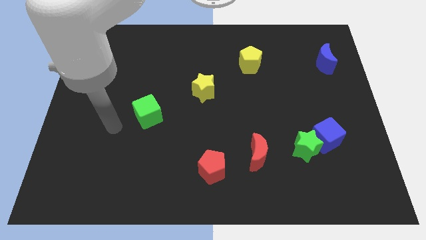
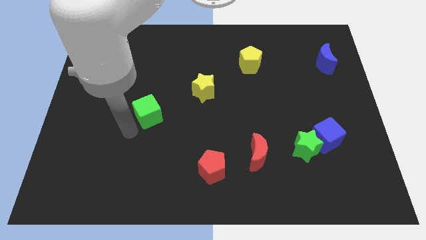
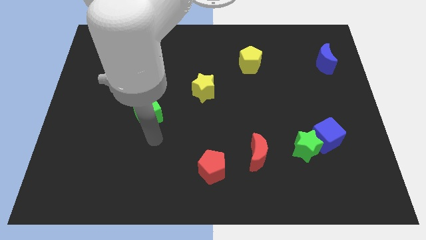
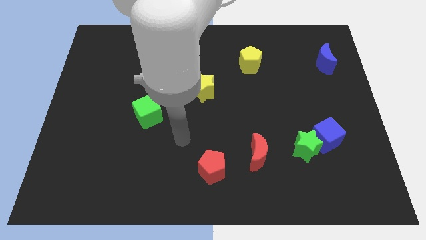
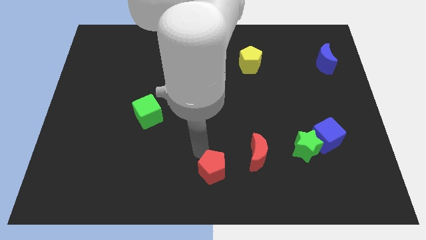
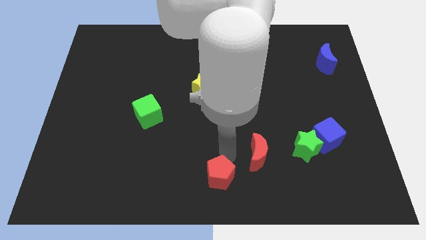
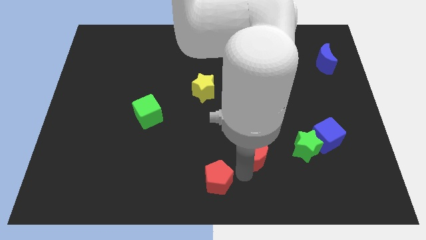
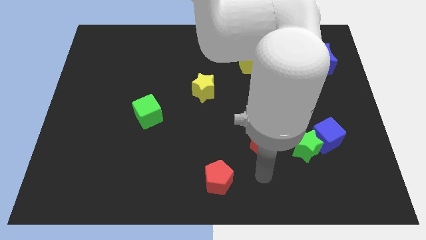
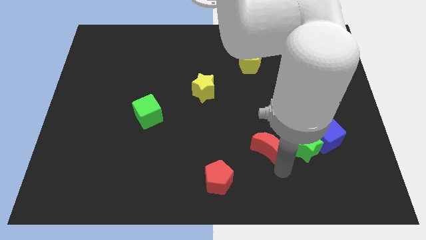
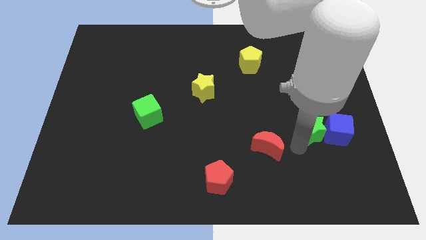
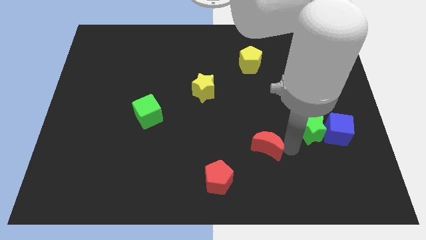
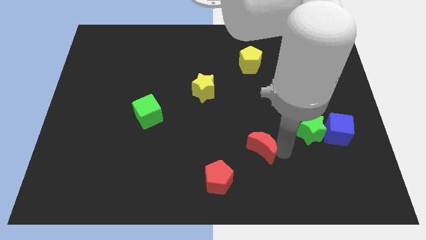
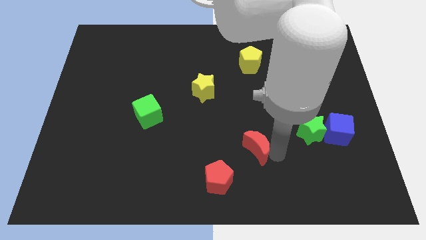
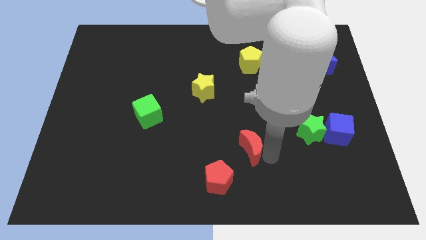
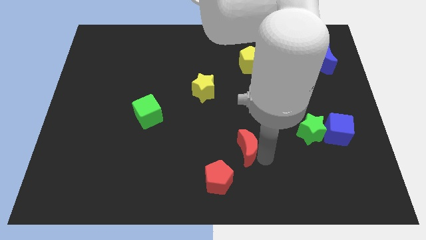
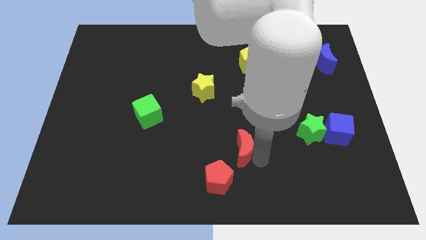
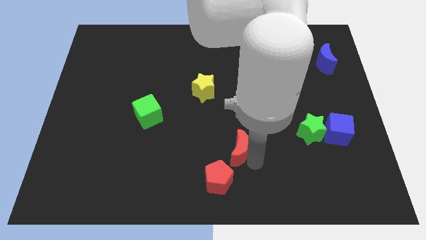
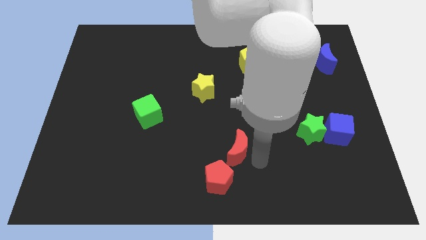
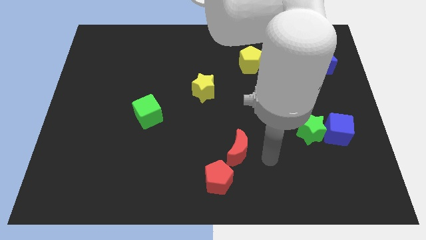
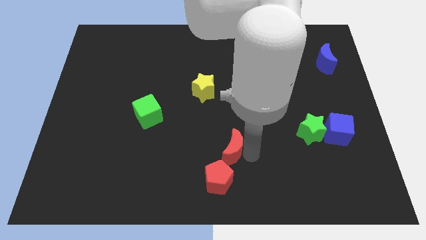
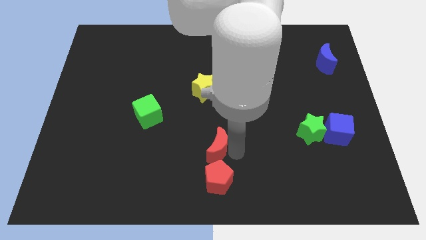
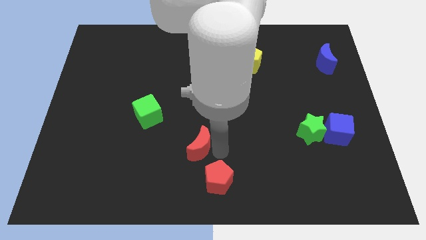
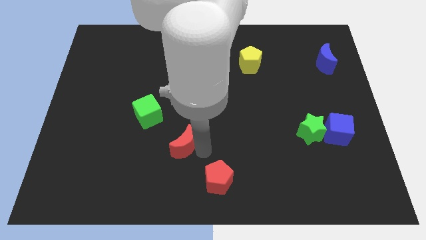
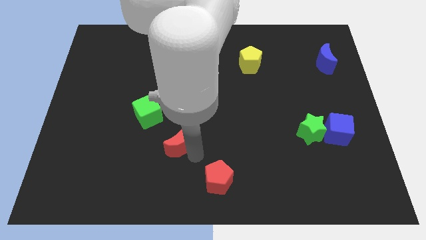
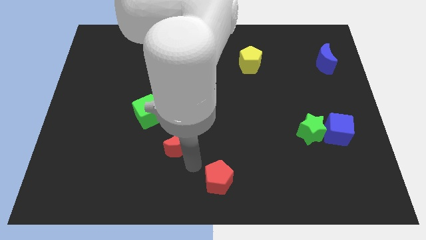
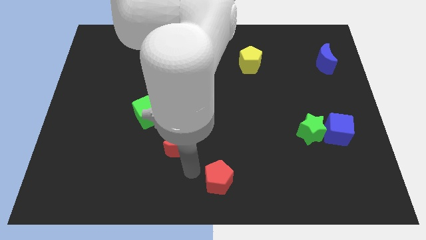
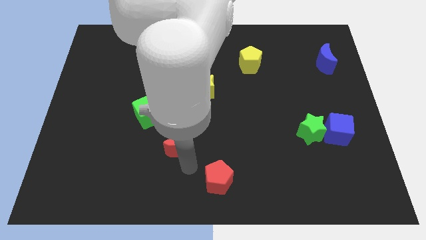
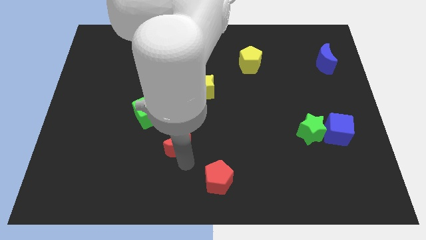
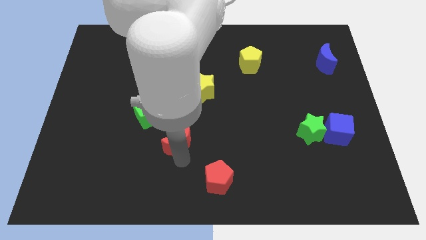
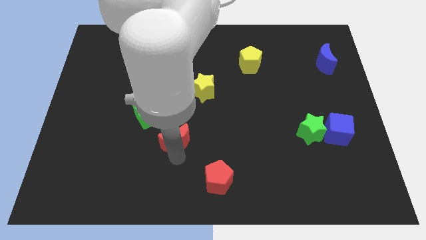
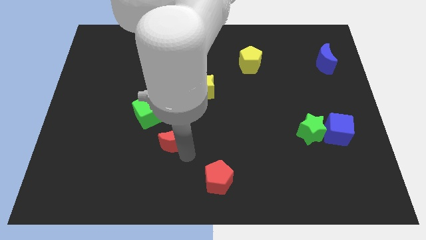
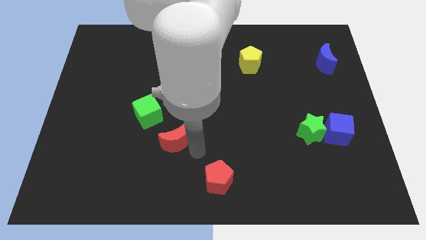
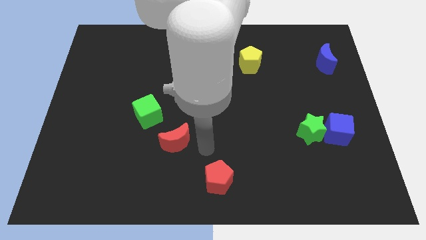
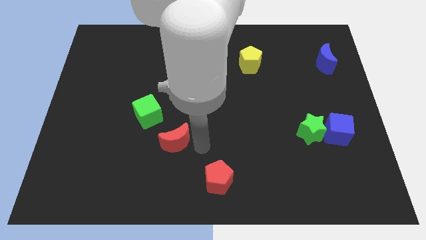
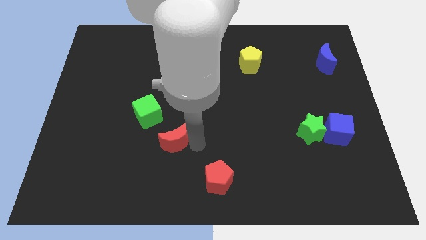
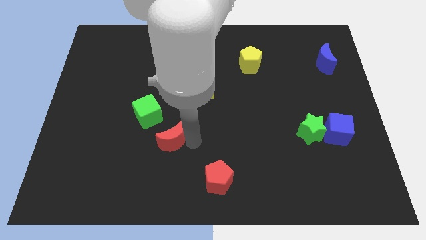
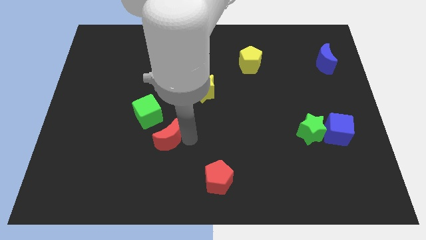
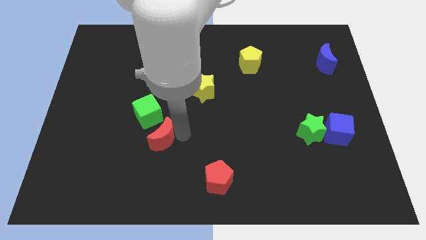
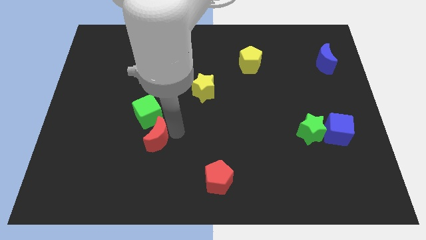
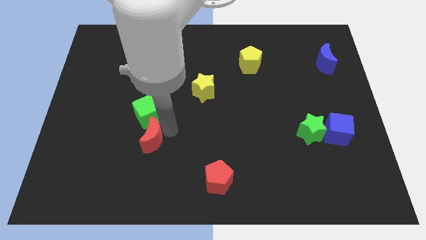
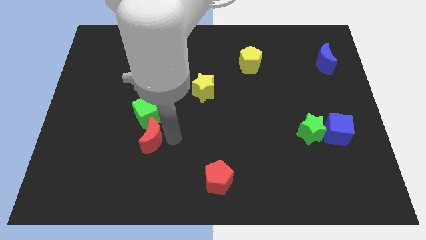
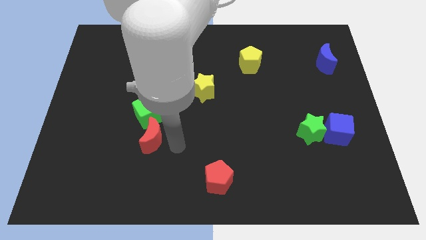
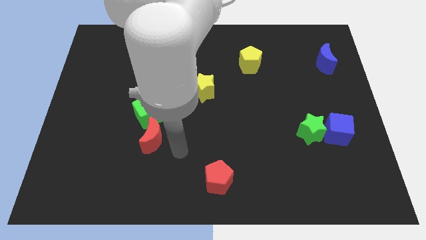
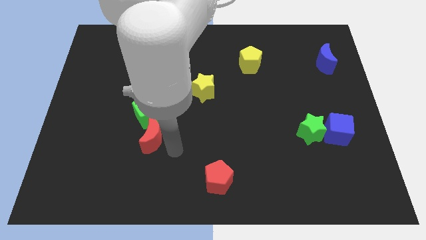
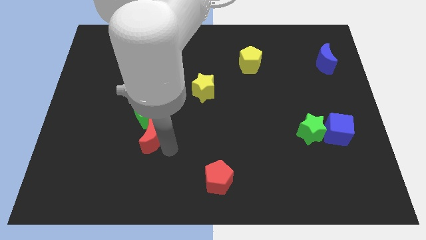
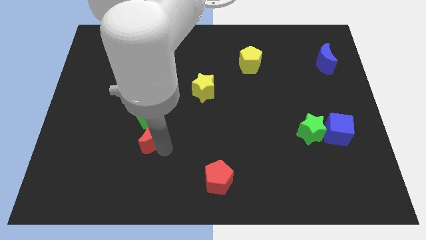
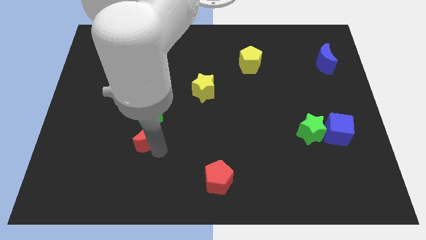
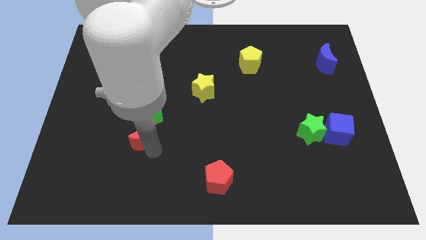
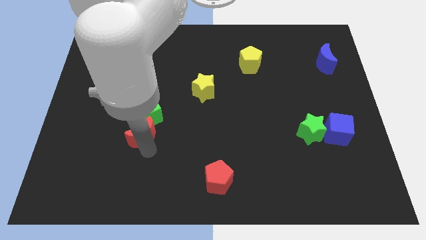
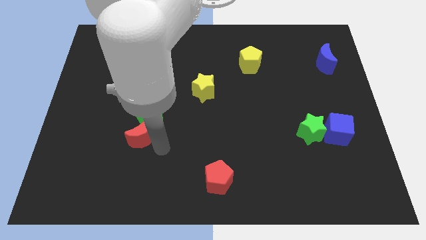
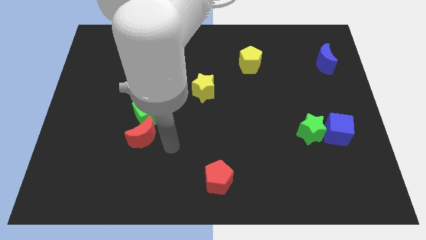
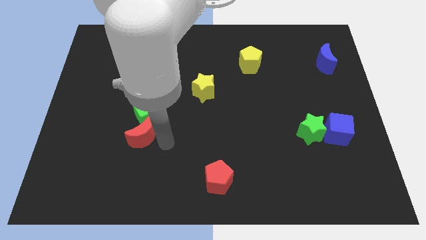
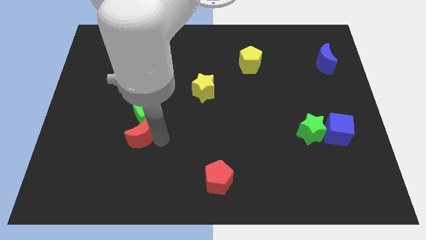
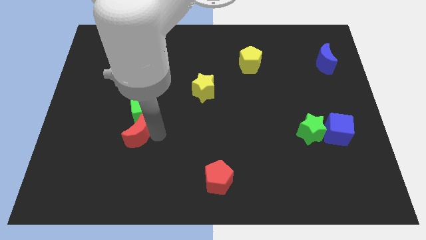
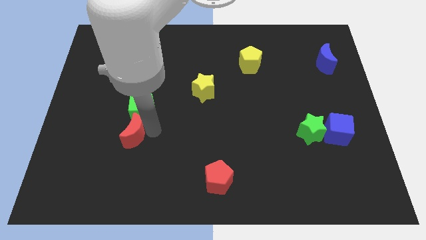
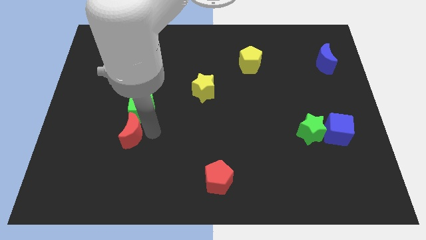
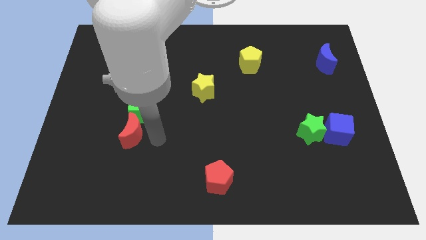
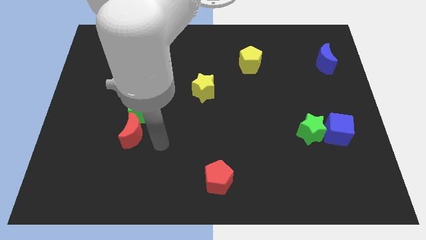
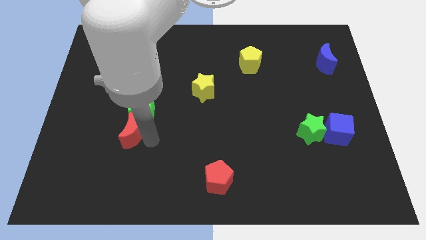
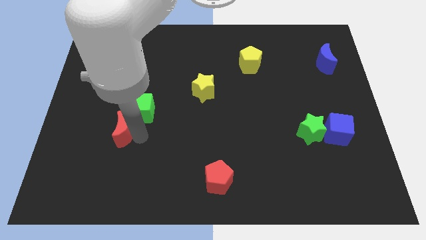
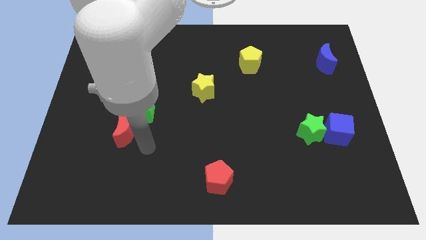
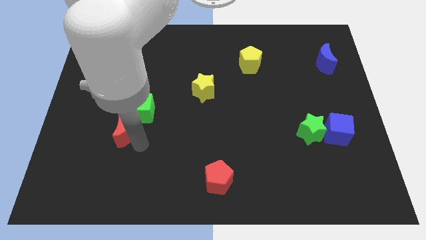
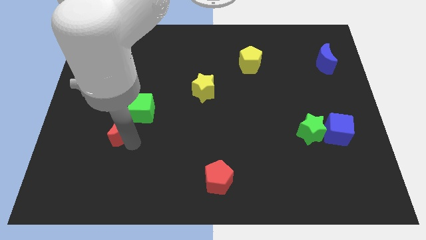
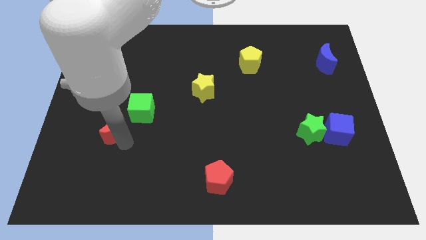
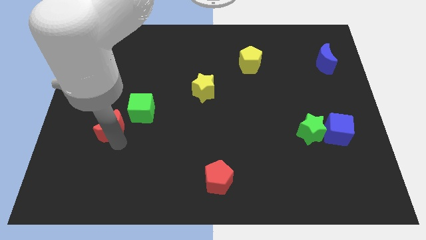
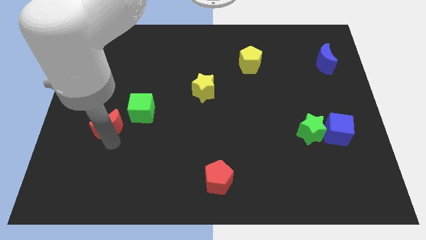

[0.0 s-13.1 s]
push the red moon to the left of the green cube
